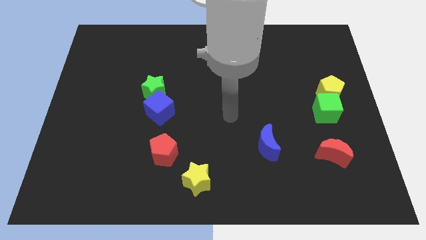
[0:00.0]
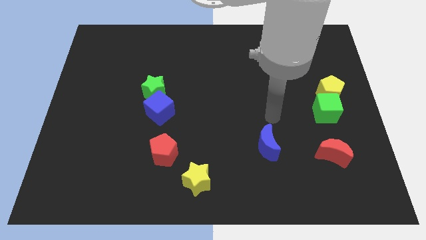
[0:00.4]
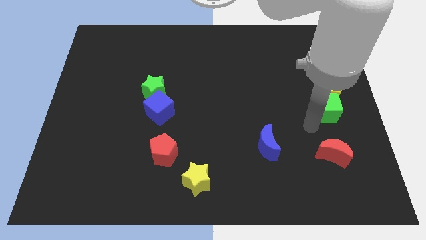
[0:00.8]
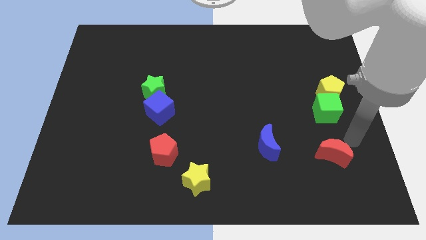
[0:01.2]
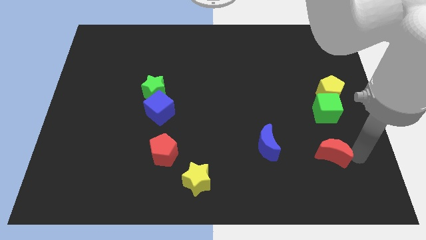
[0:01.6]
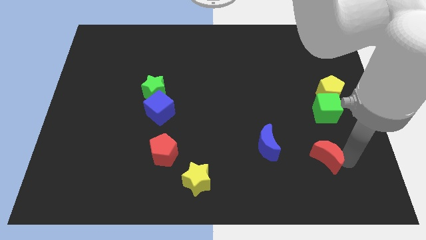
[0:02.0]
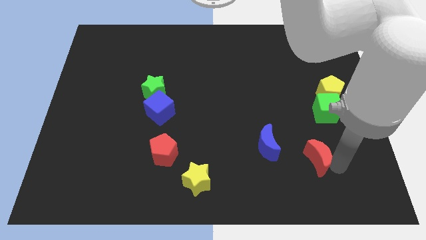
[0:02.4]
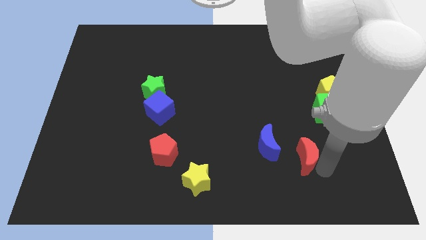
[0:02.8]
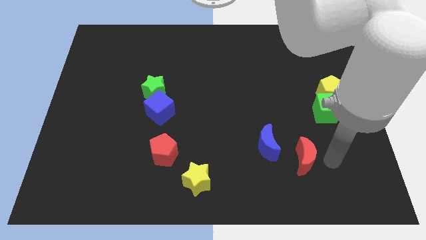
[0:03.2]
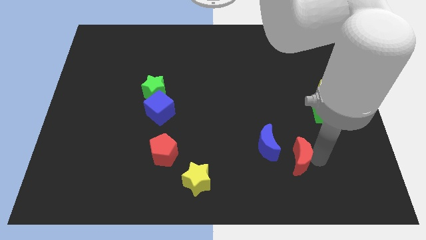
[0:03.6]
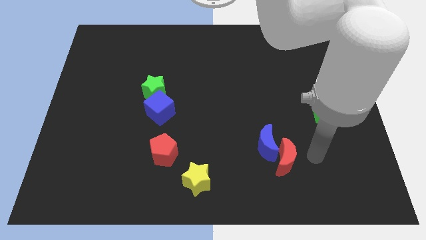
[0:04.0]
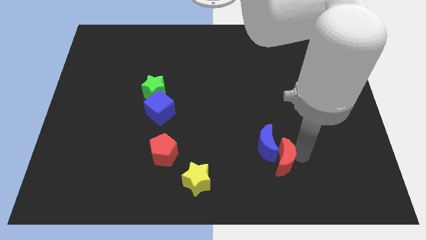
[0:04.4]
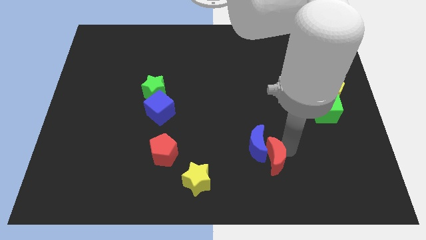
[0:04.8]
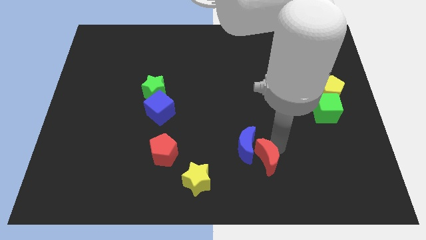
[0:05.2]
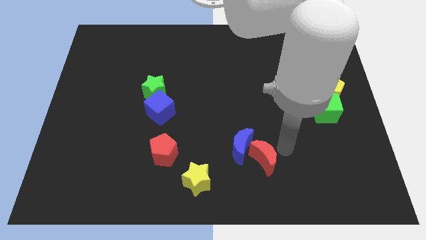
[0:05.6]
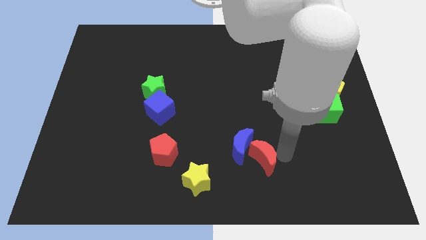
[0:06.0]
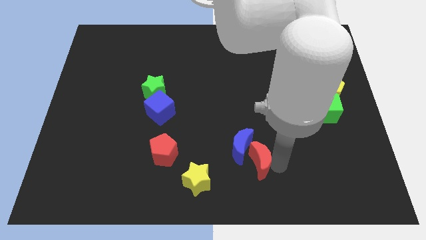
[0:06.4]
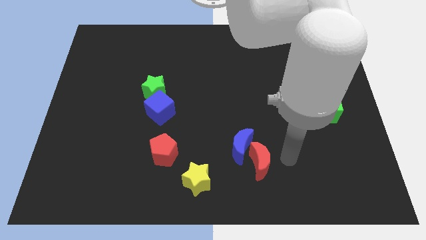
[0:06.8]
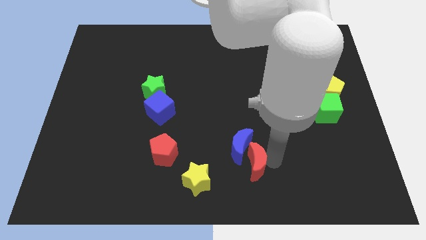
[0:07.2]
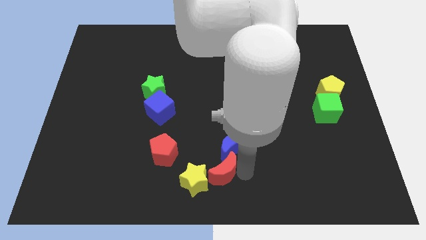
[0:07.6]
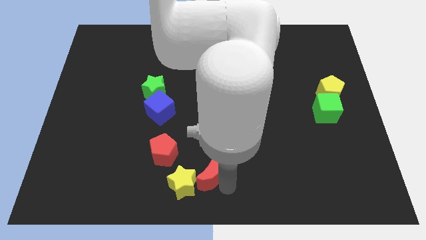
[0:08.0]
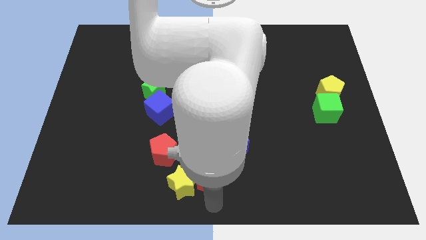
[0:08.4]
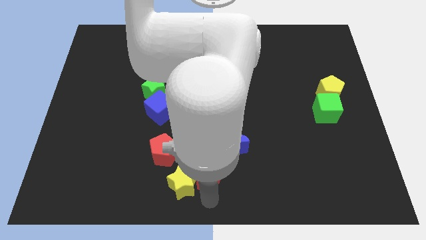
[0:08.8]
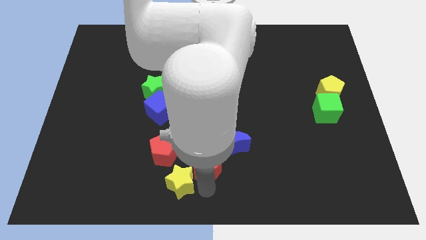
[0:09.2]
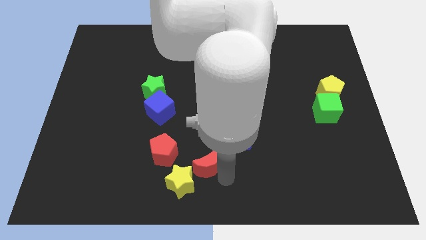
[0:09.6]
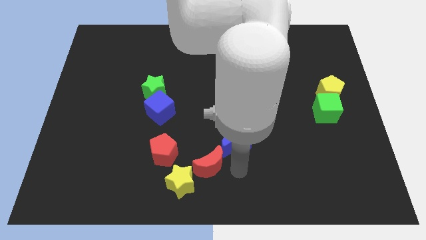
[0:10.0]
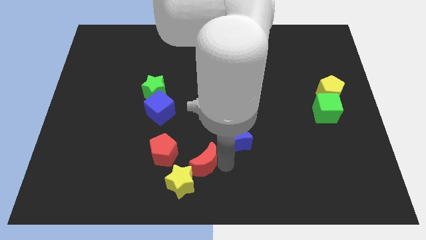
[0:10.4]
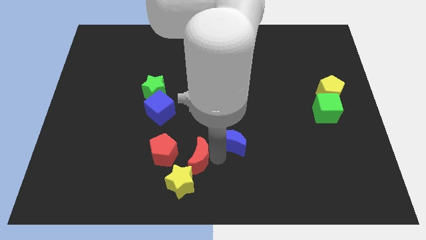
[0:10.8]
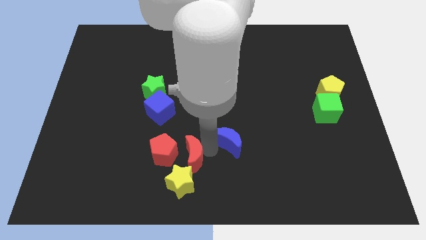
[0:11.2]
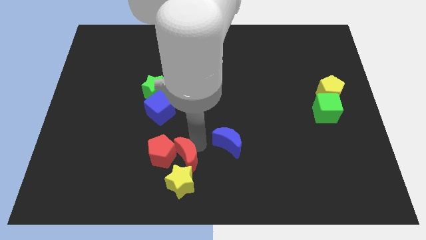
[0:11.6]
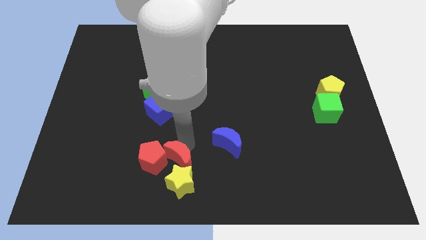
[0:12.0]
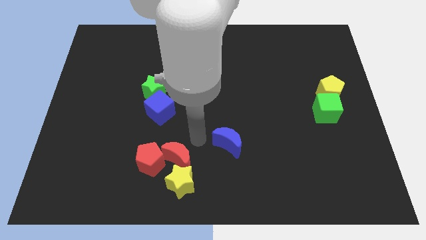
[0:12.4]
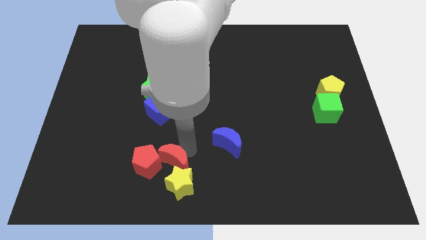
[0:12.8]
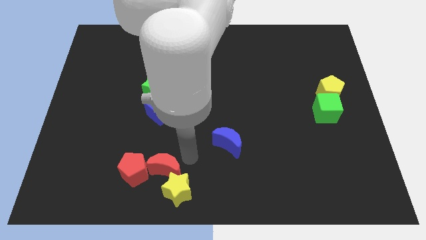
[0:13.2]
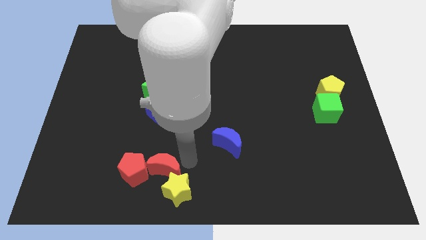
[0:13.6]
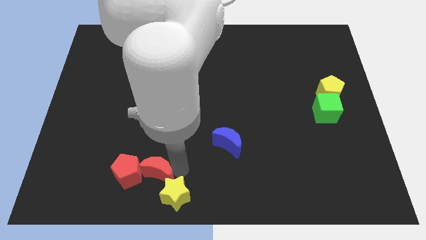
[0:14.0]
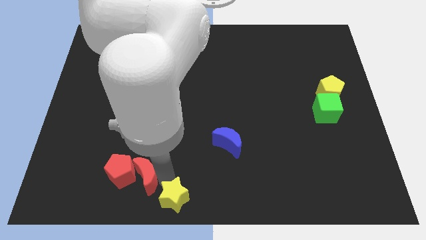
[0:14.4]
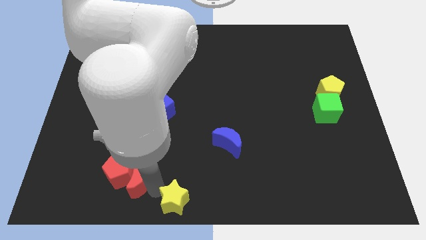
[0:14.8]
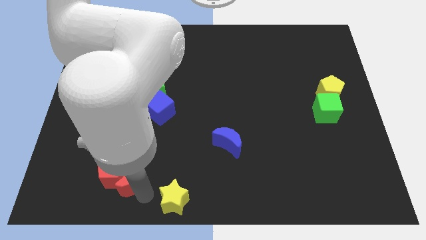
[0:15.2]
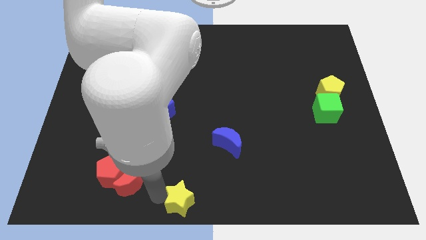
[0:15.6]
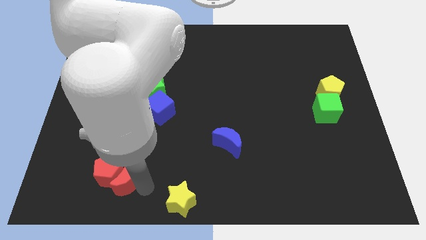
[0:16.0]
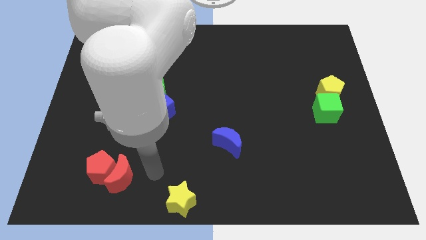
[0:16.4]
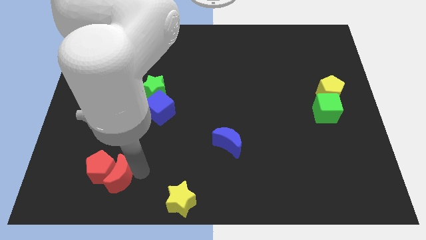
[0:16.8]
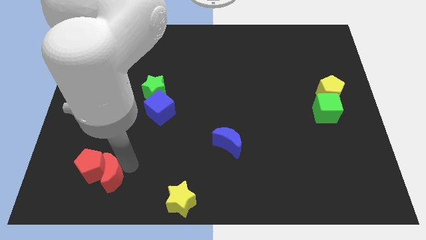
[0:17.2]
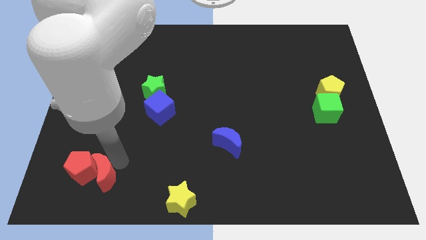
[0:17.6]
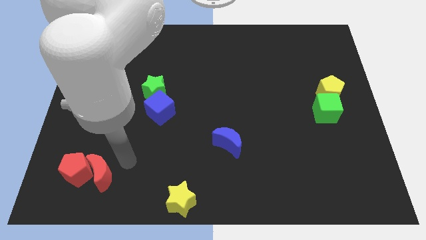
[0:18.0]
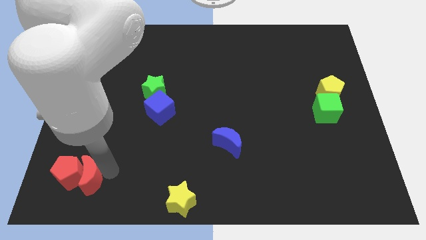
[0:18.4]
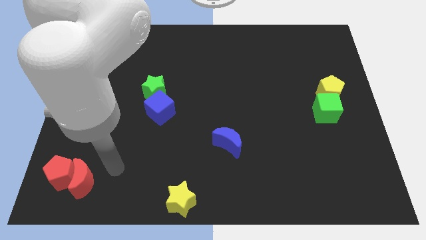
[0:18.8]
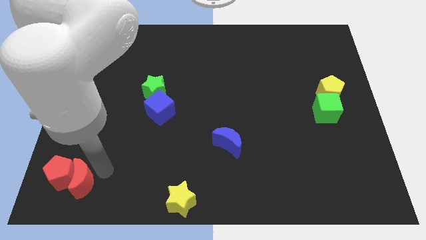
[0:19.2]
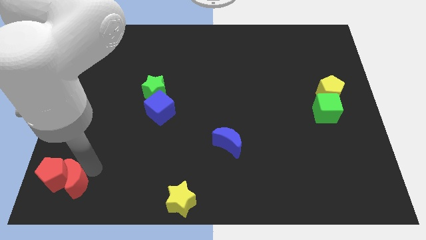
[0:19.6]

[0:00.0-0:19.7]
put the red moon to the bottom left of the board

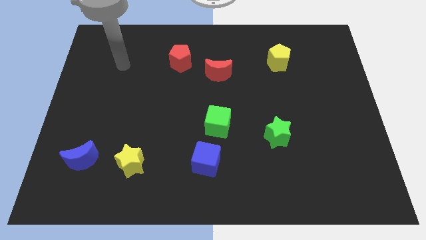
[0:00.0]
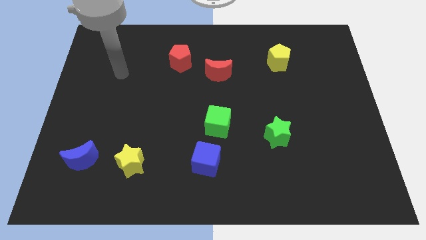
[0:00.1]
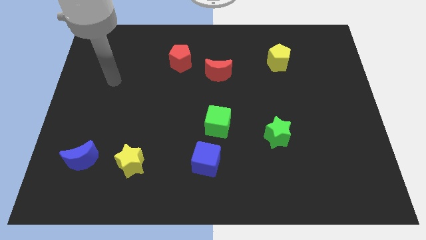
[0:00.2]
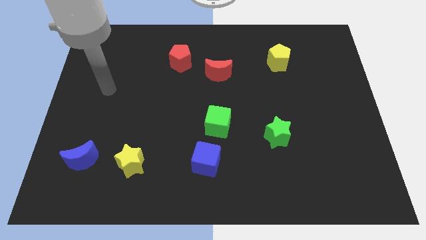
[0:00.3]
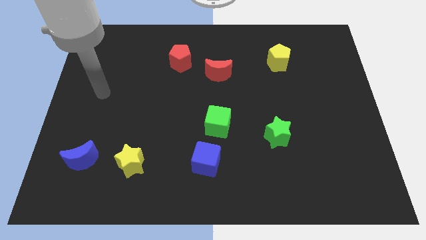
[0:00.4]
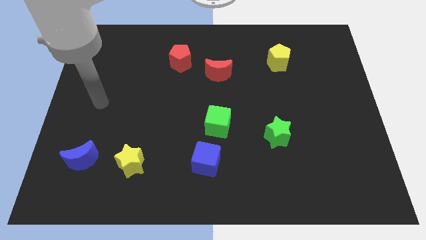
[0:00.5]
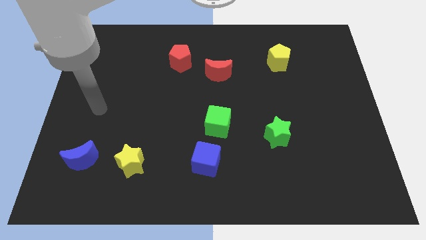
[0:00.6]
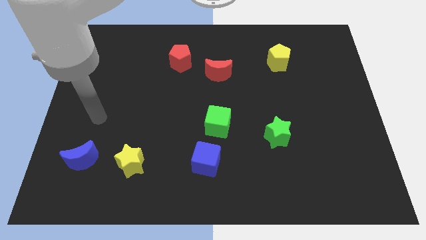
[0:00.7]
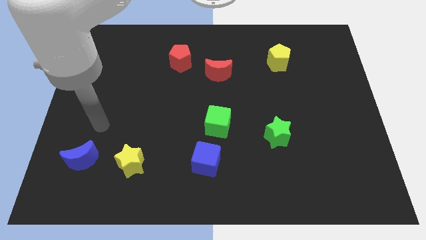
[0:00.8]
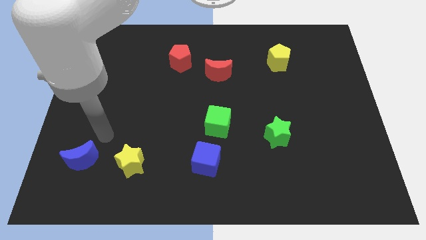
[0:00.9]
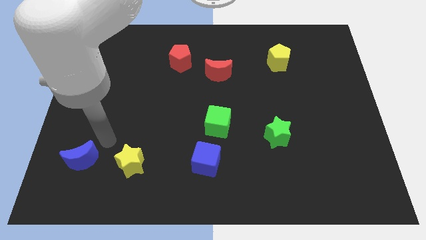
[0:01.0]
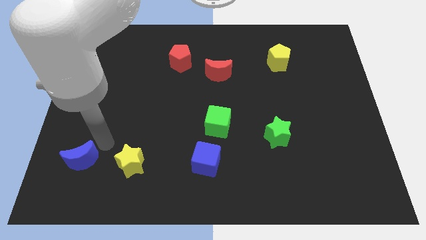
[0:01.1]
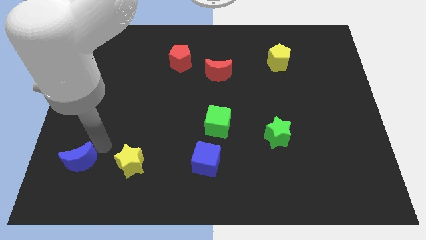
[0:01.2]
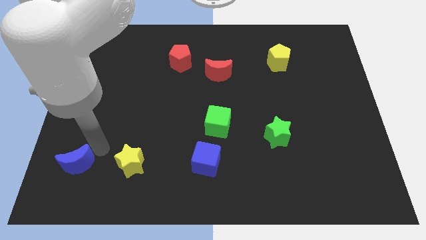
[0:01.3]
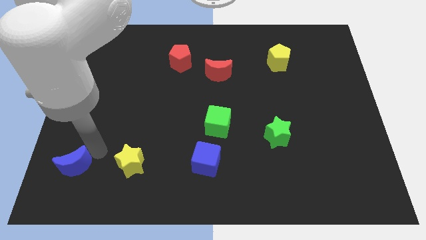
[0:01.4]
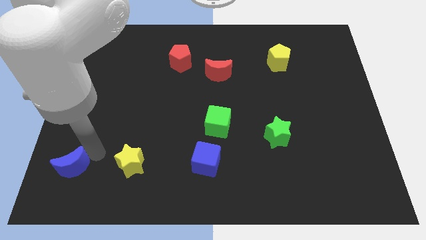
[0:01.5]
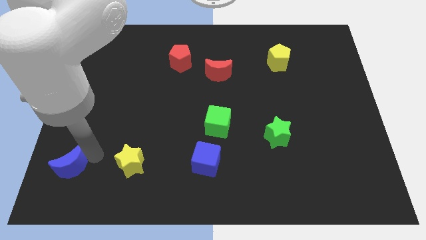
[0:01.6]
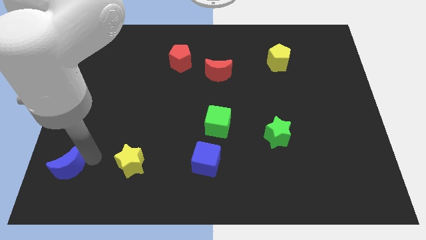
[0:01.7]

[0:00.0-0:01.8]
slide the blue moon to the bottom left corner
